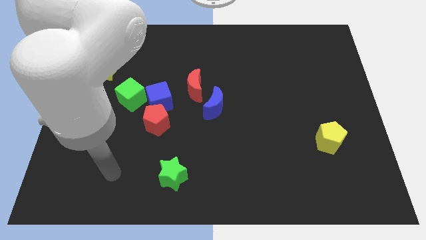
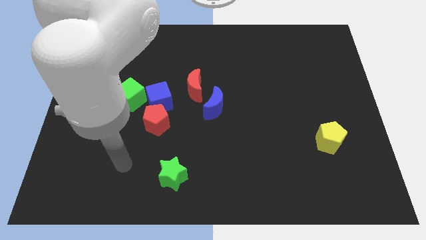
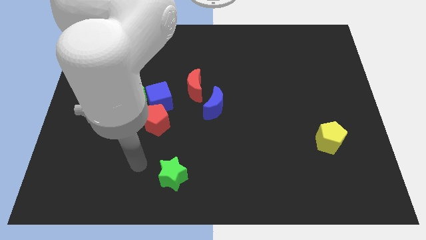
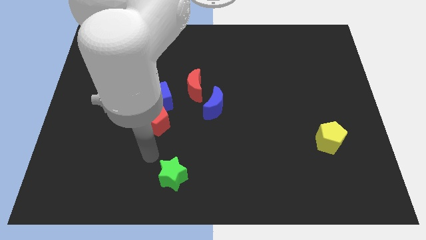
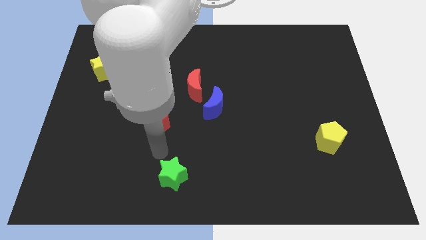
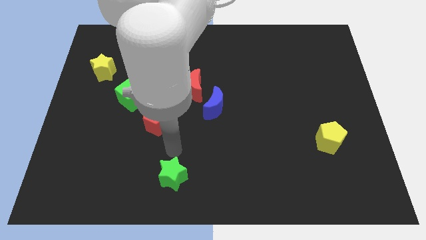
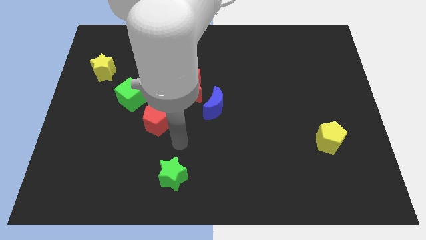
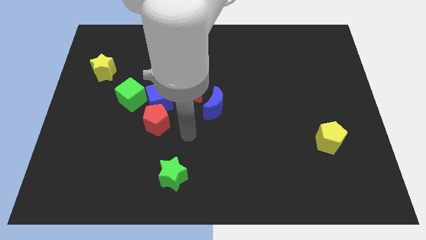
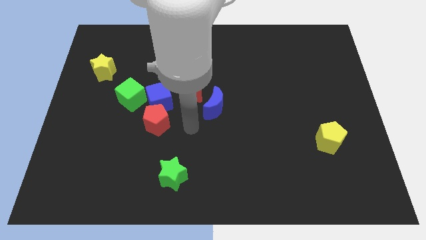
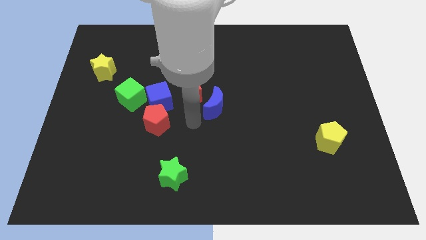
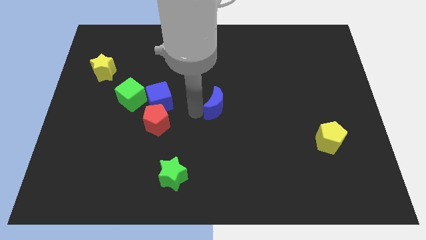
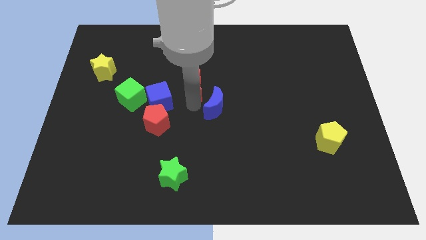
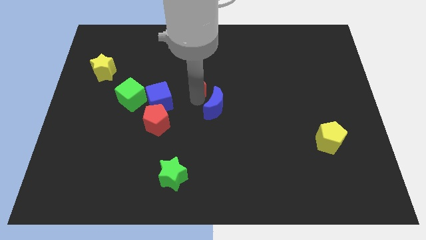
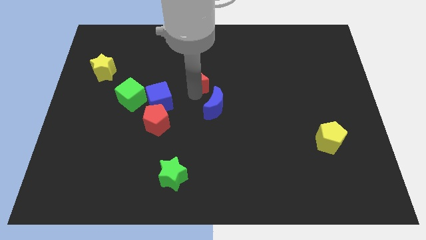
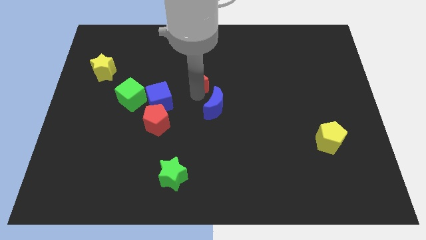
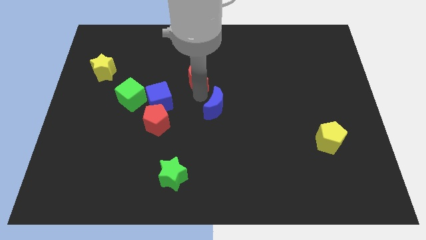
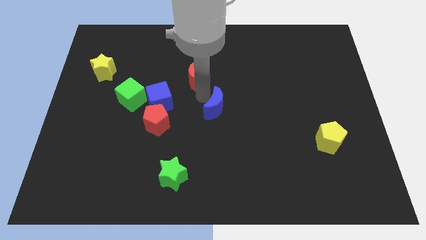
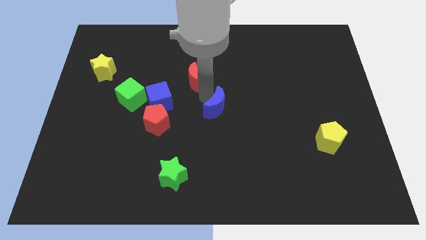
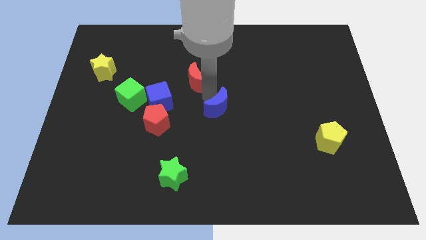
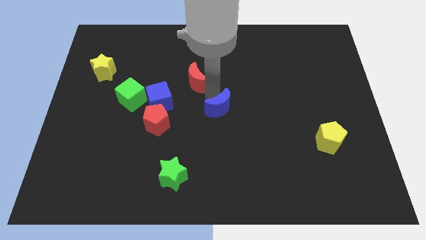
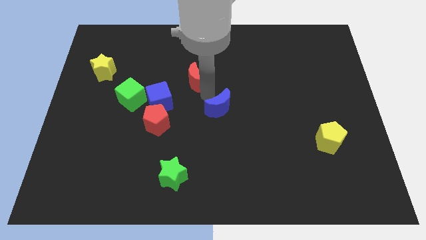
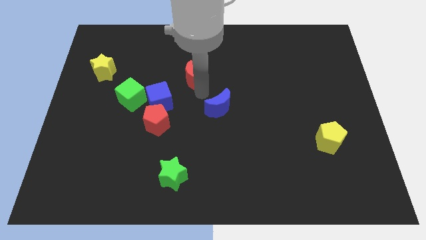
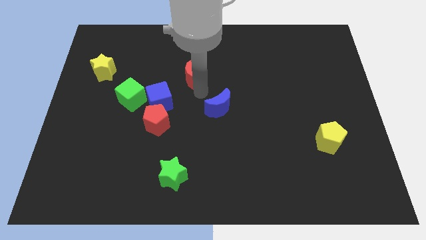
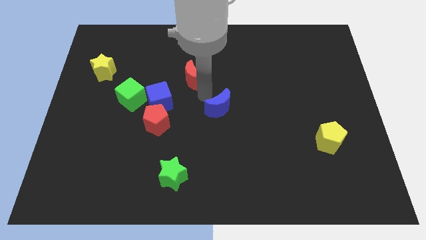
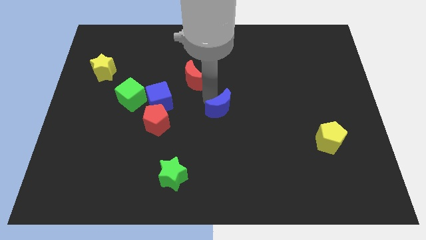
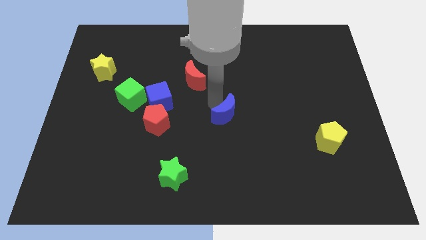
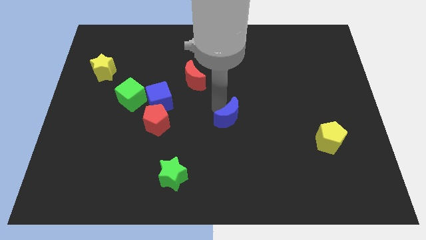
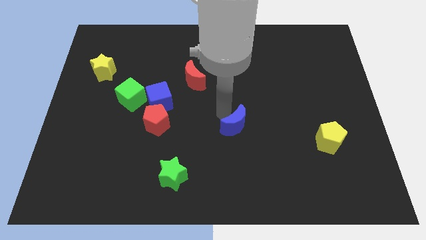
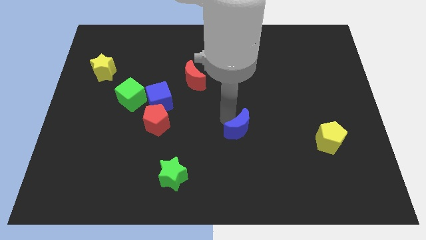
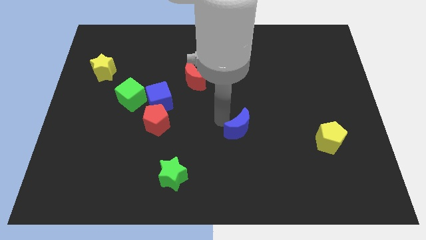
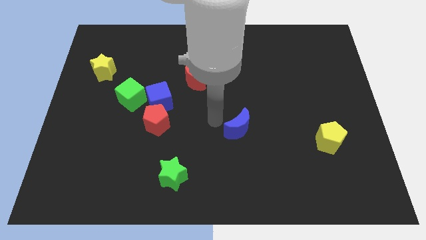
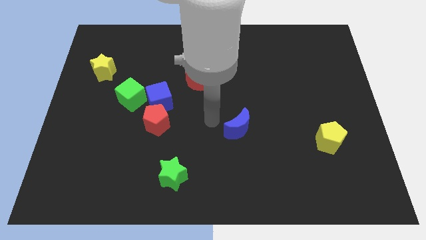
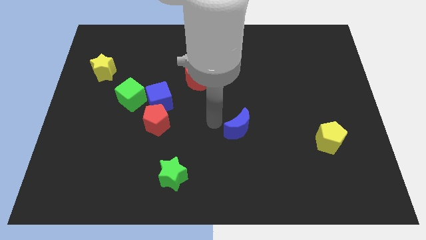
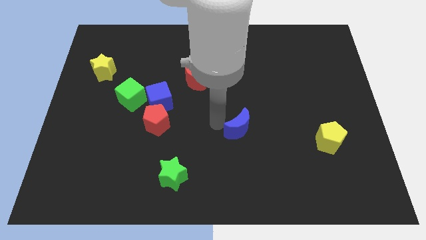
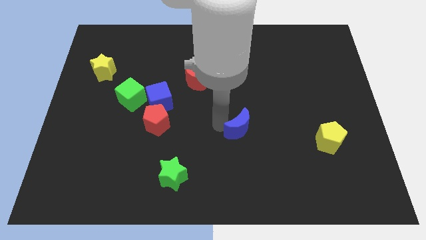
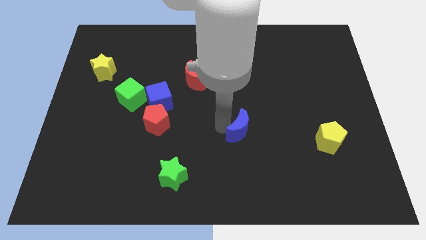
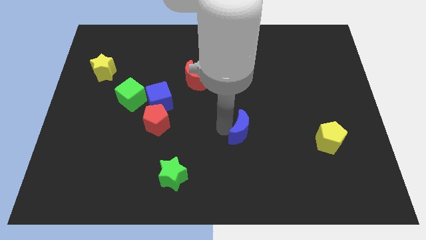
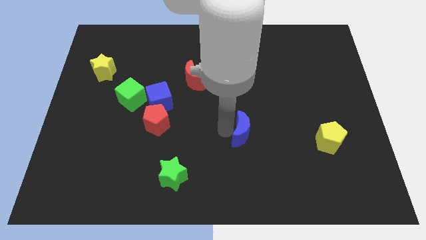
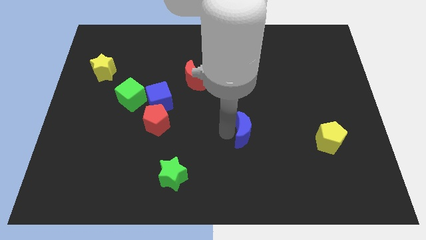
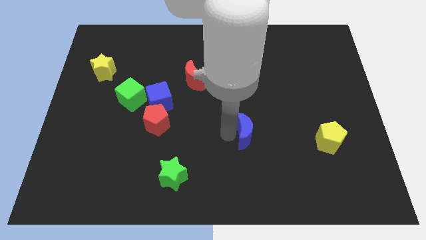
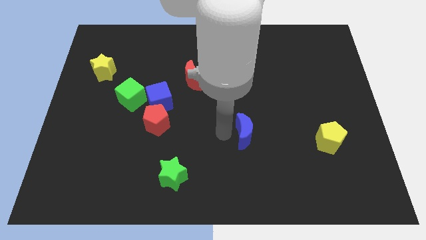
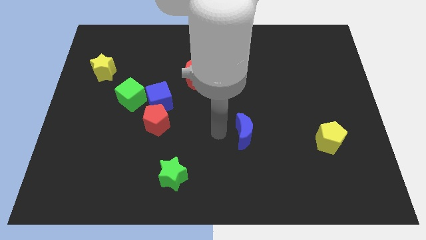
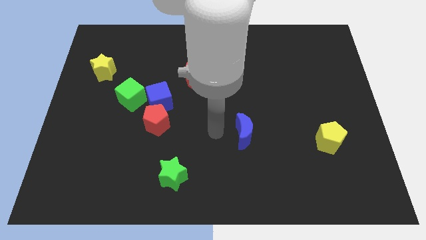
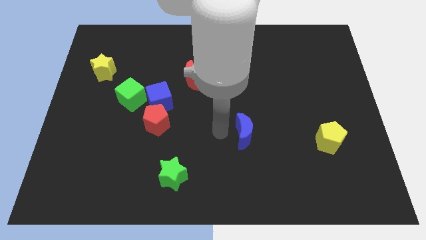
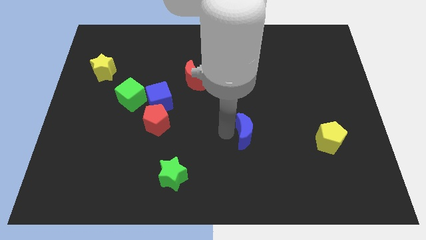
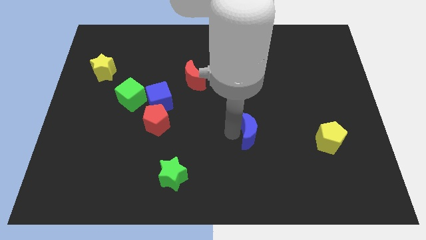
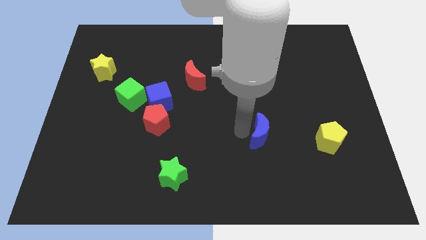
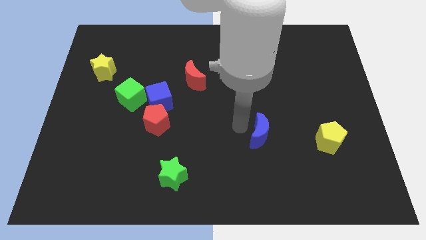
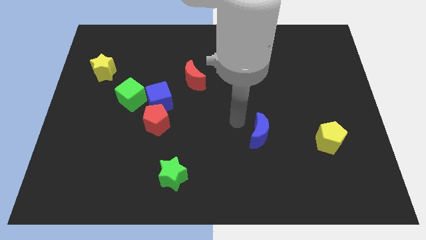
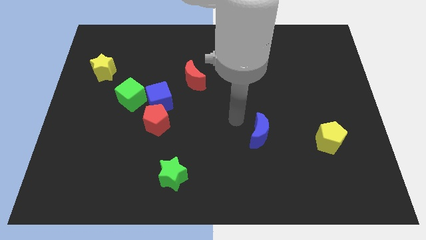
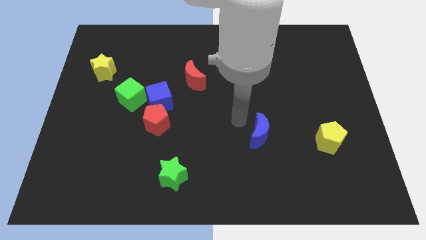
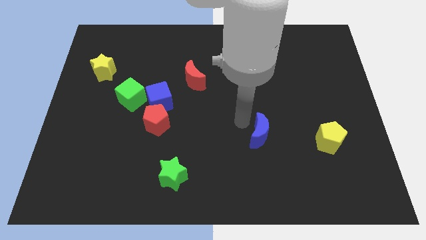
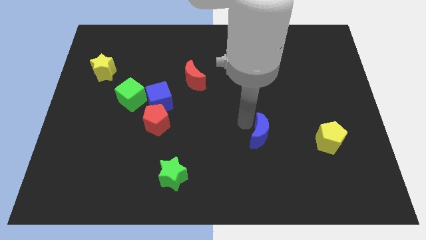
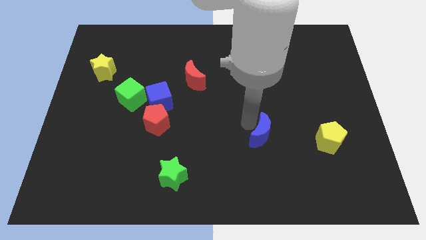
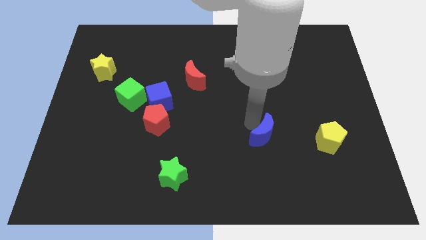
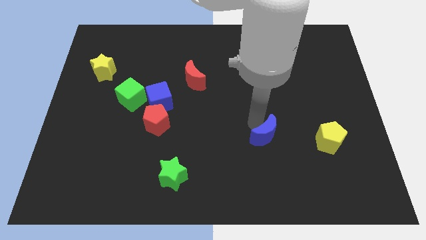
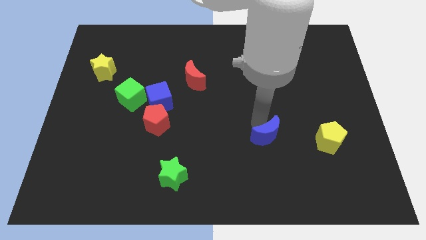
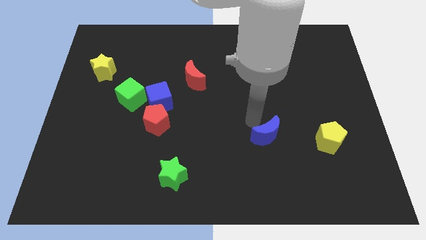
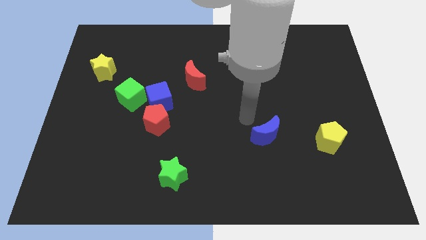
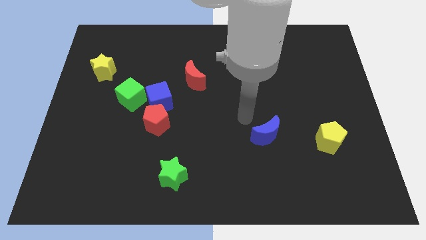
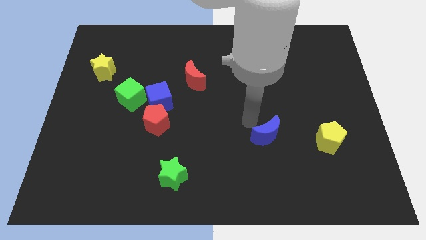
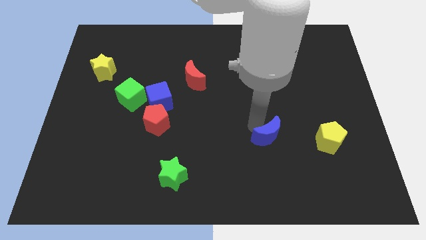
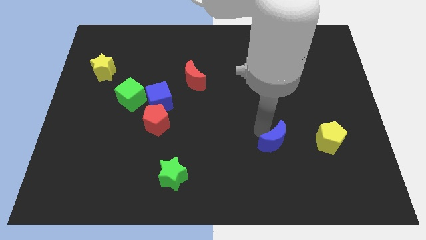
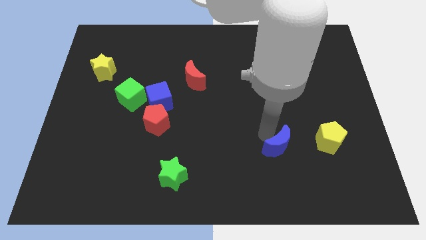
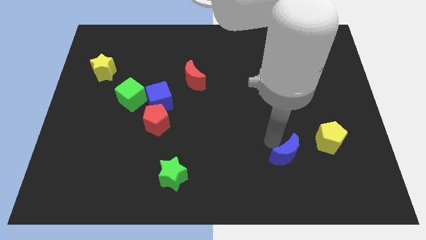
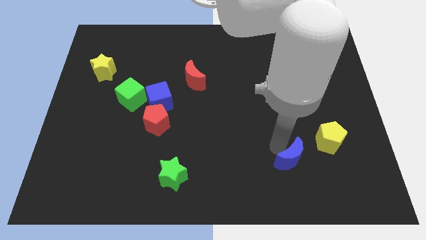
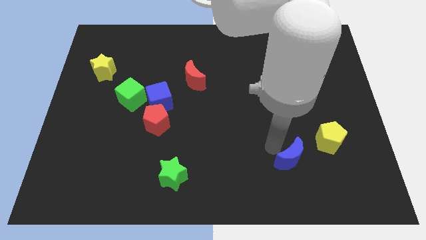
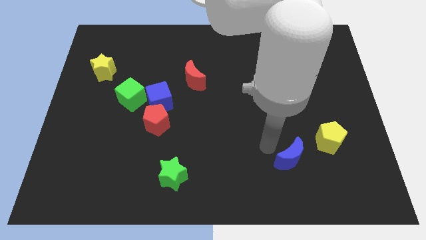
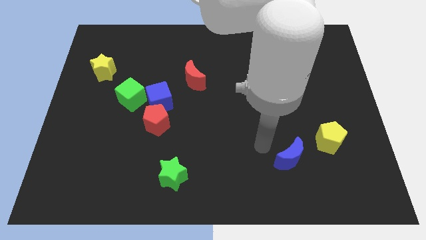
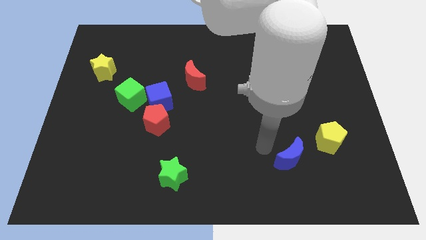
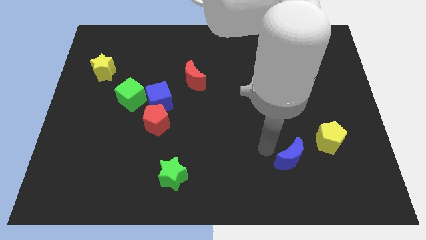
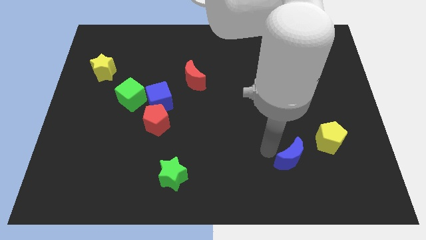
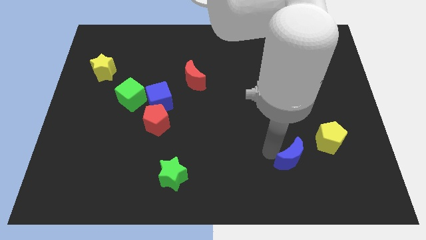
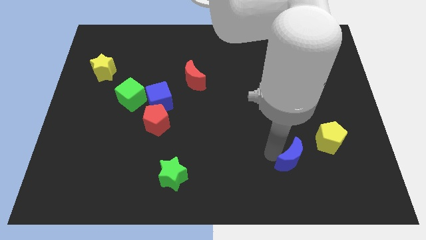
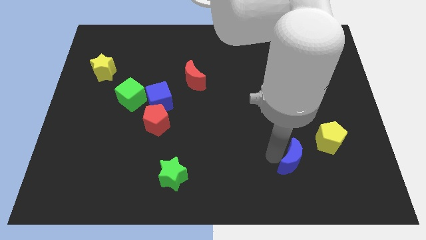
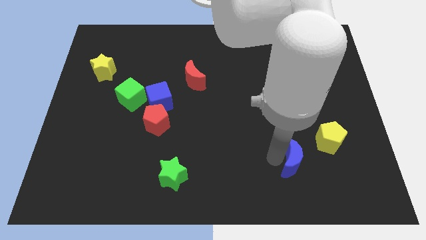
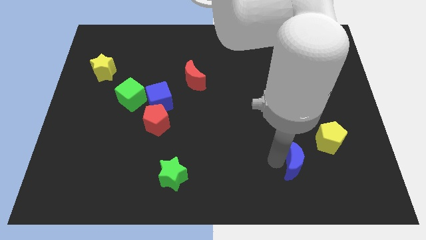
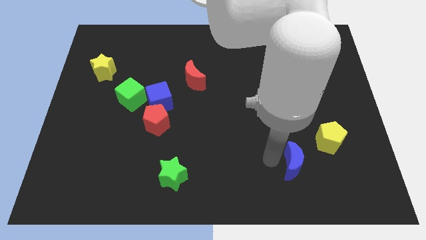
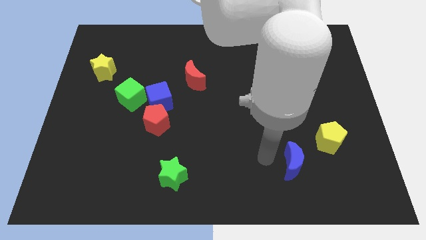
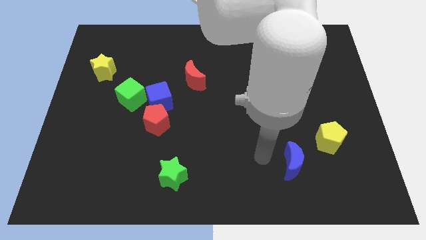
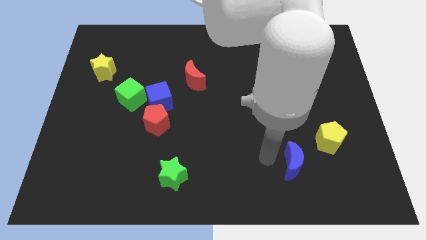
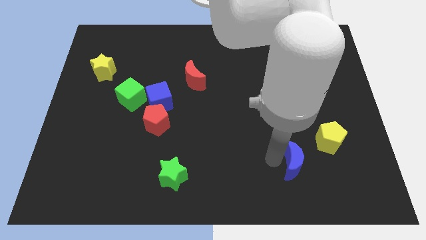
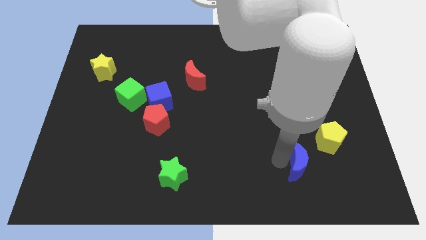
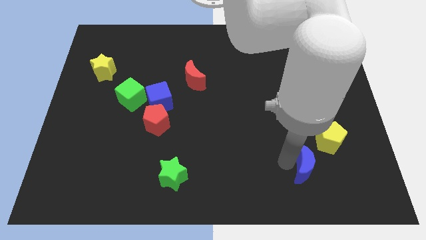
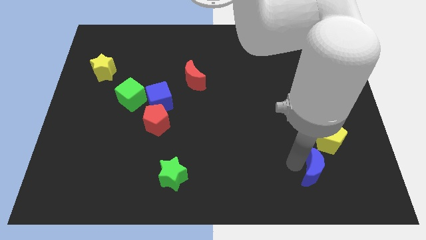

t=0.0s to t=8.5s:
push the blue moon to the bottom side of the yellow pentagon
